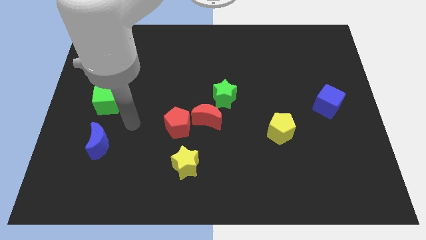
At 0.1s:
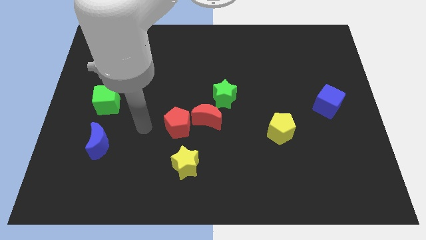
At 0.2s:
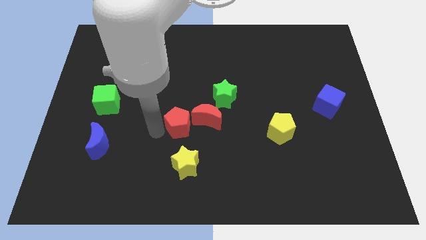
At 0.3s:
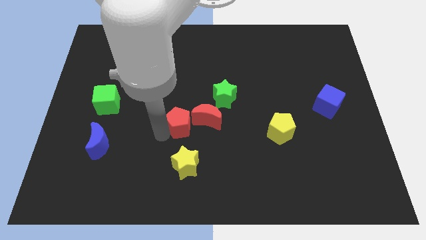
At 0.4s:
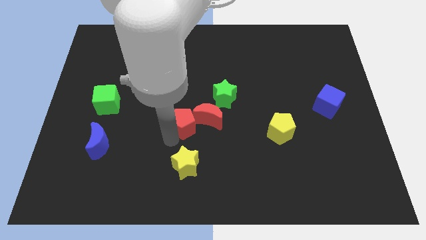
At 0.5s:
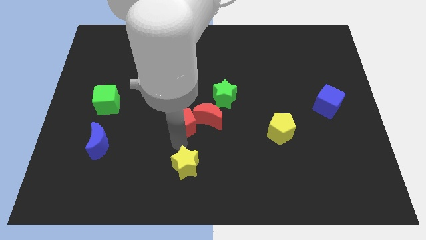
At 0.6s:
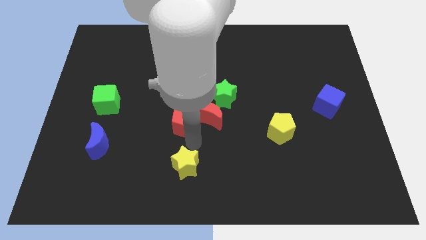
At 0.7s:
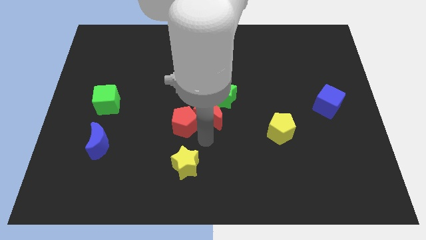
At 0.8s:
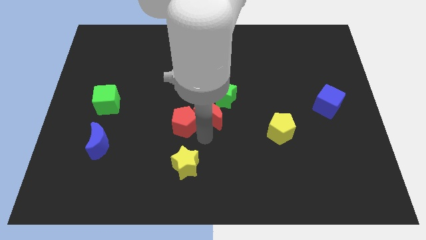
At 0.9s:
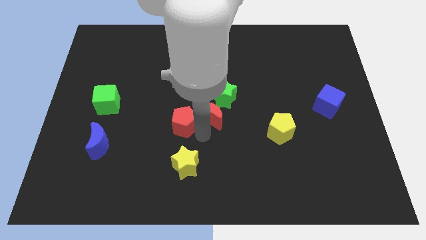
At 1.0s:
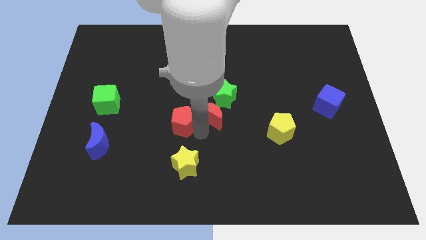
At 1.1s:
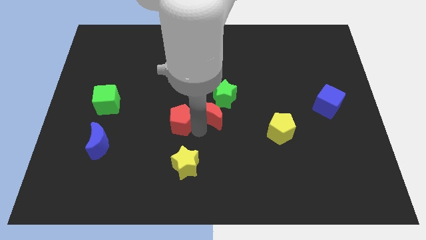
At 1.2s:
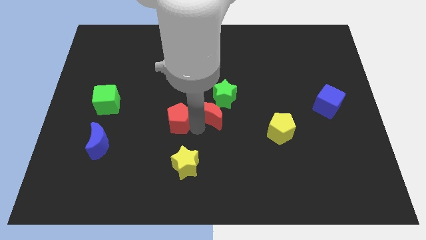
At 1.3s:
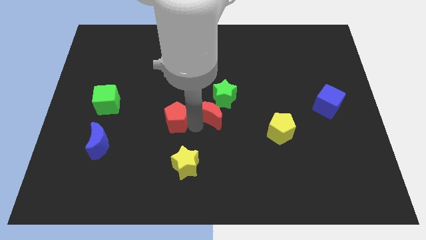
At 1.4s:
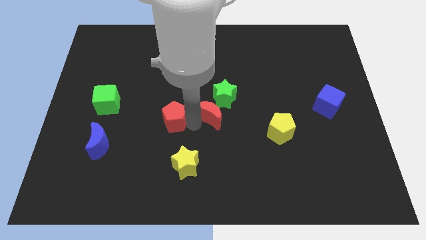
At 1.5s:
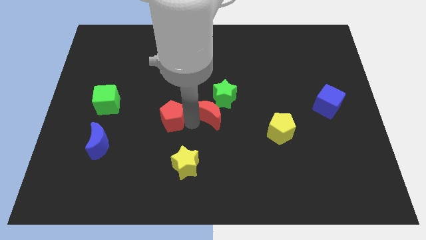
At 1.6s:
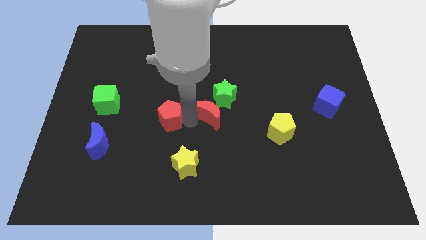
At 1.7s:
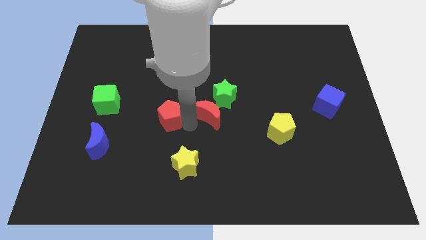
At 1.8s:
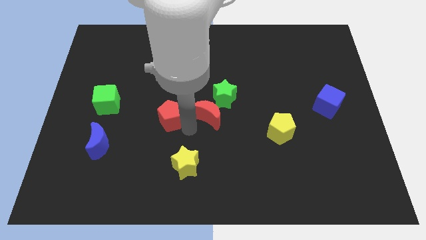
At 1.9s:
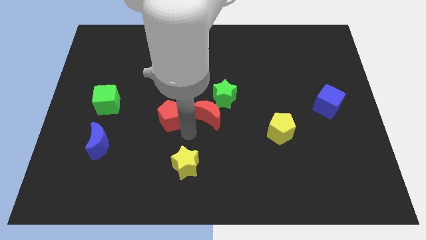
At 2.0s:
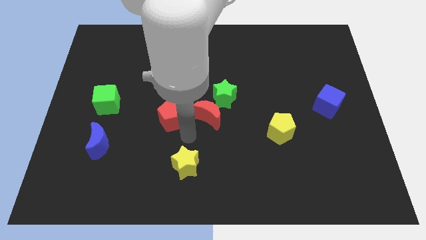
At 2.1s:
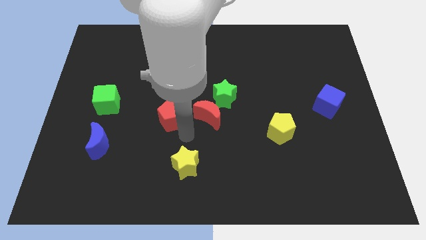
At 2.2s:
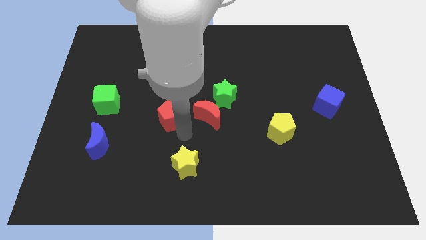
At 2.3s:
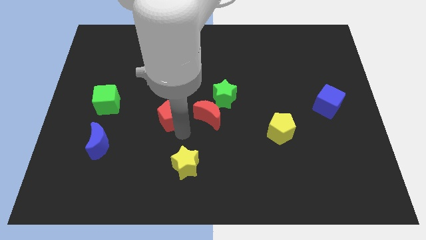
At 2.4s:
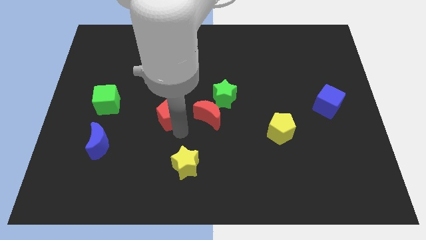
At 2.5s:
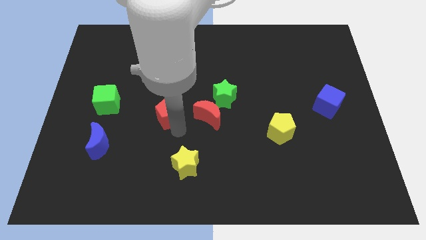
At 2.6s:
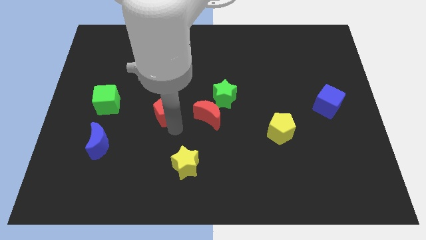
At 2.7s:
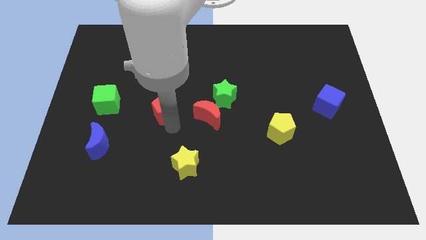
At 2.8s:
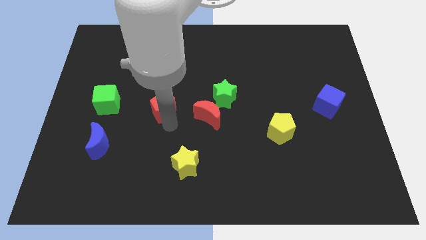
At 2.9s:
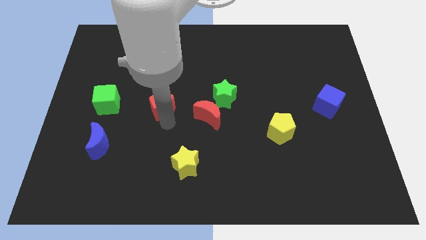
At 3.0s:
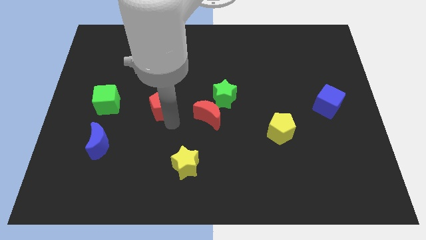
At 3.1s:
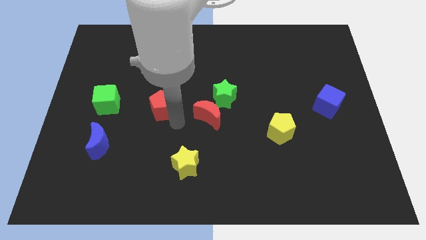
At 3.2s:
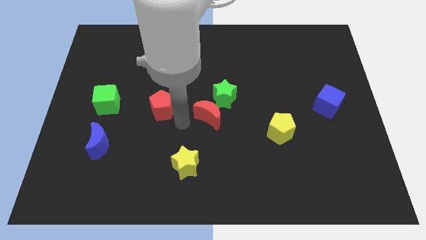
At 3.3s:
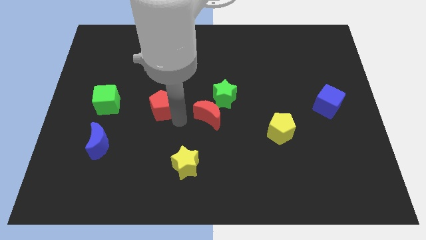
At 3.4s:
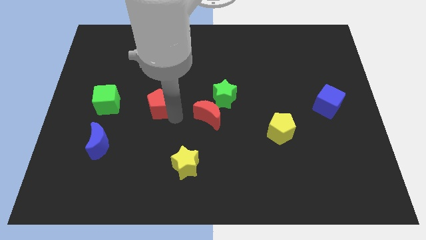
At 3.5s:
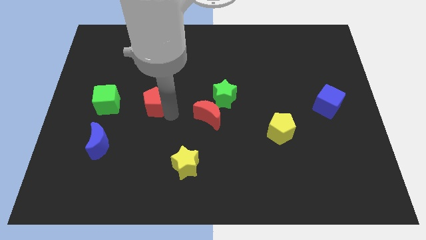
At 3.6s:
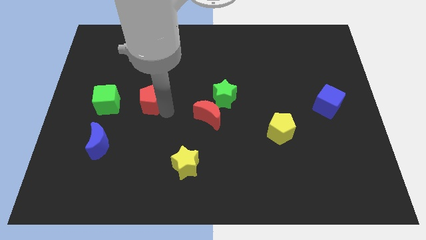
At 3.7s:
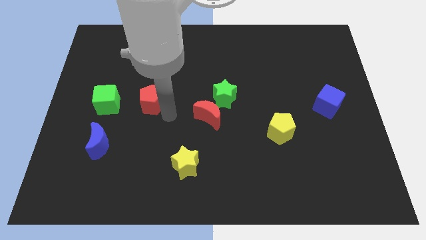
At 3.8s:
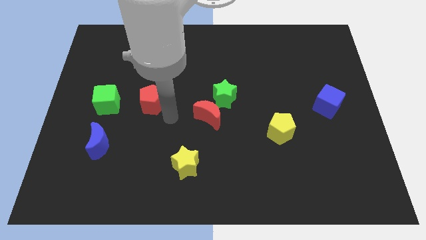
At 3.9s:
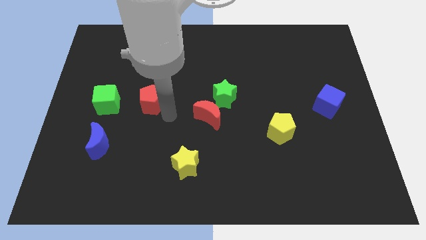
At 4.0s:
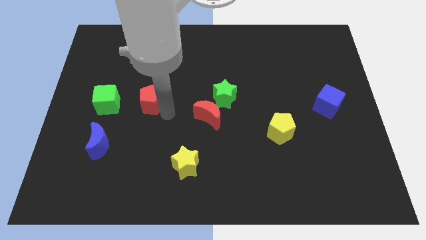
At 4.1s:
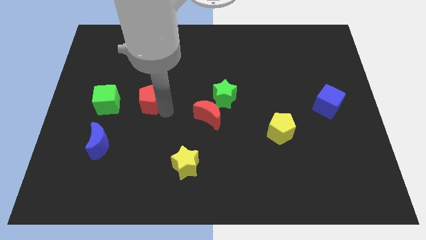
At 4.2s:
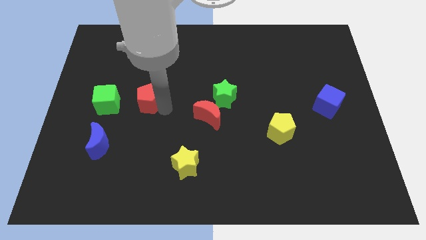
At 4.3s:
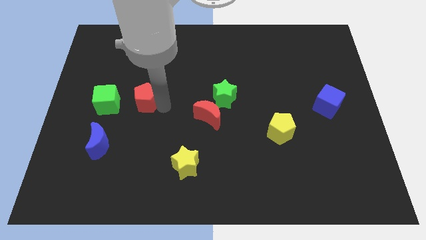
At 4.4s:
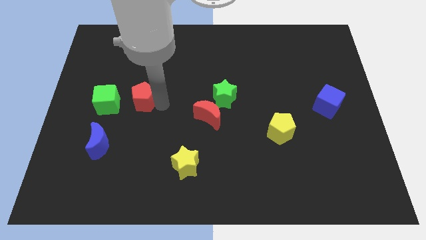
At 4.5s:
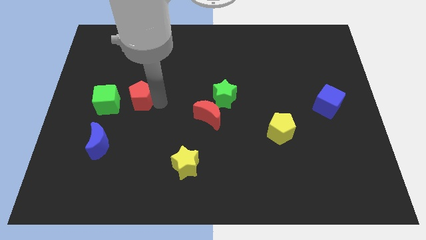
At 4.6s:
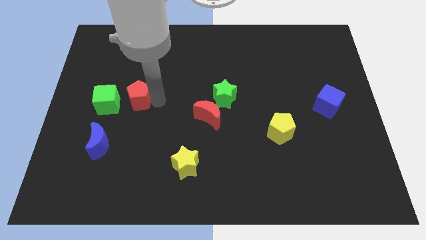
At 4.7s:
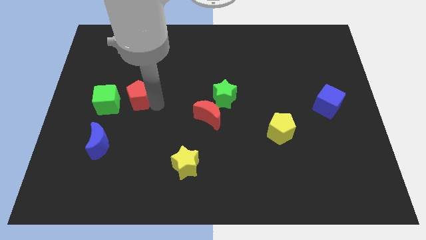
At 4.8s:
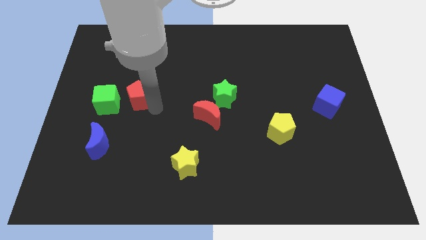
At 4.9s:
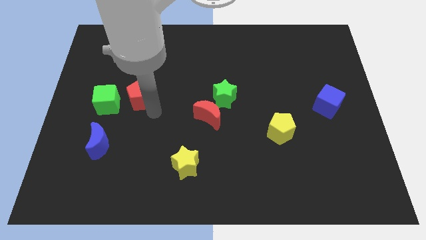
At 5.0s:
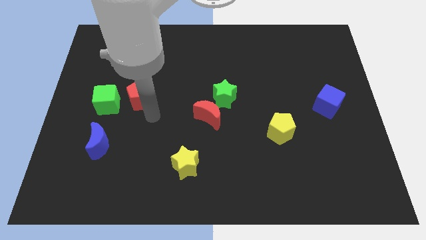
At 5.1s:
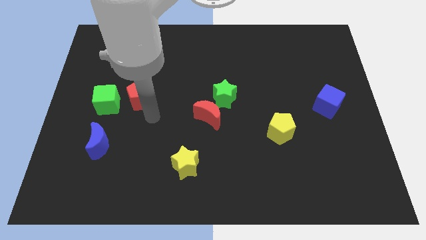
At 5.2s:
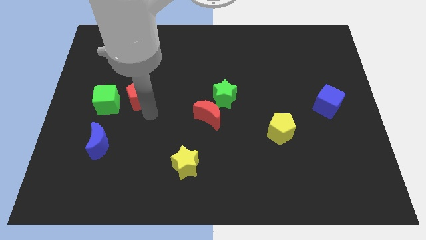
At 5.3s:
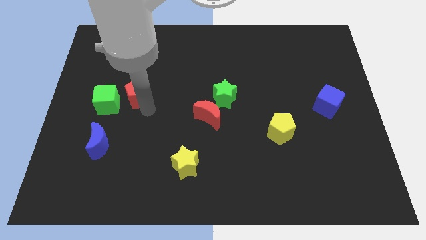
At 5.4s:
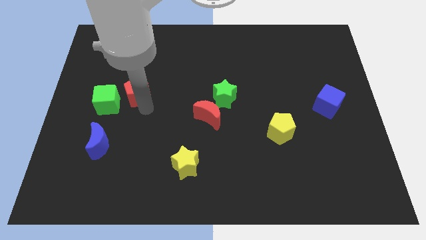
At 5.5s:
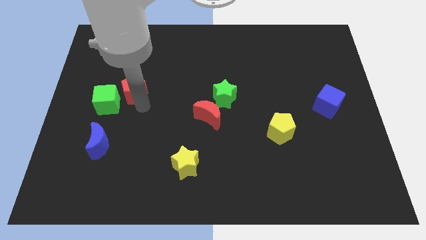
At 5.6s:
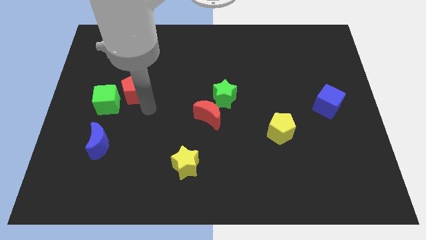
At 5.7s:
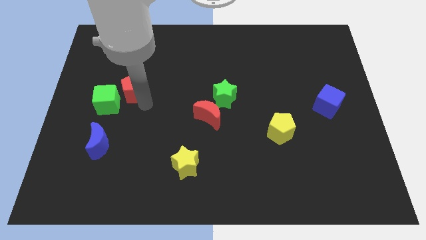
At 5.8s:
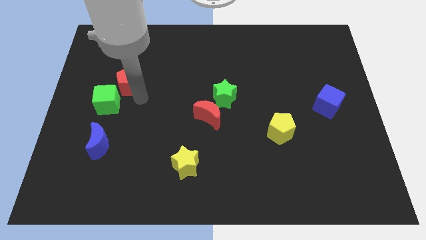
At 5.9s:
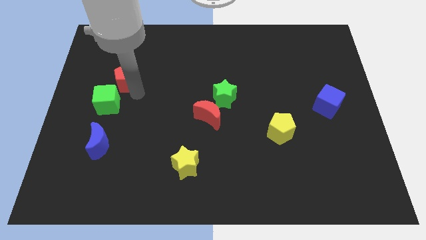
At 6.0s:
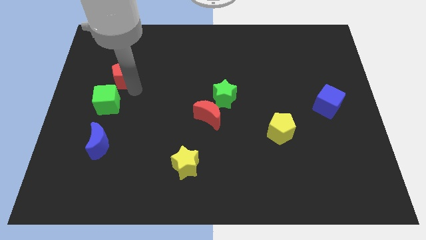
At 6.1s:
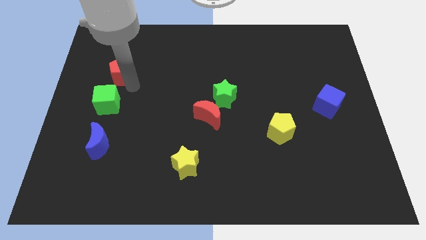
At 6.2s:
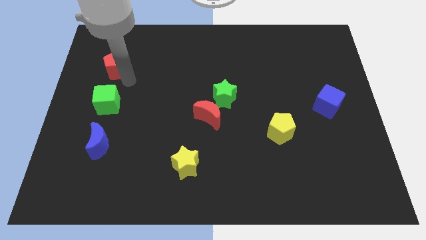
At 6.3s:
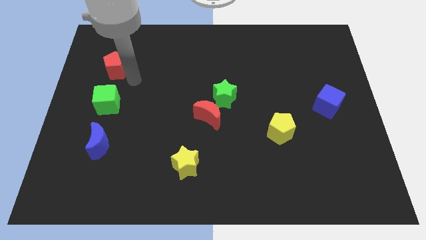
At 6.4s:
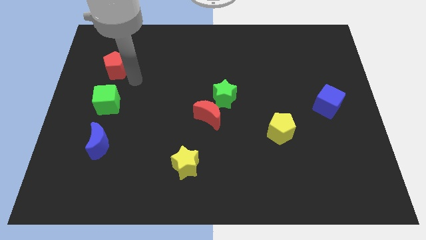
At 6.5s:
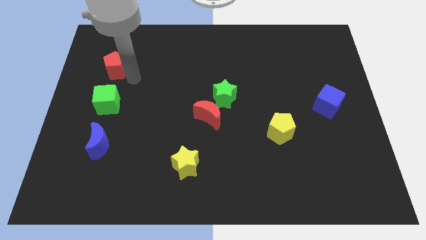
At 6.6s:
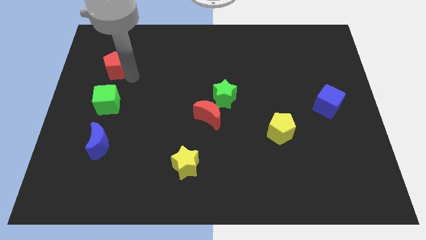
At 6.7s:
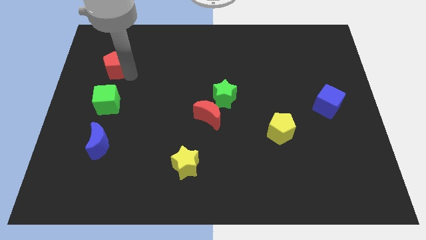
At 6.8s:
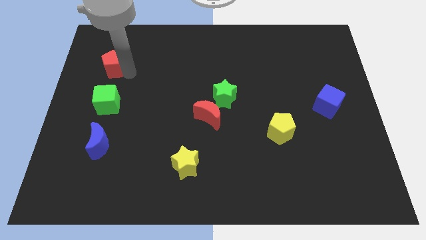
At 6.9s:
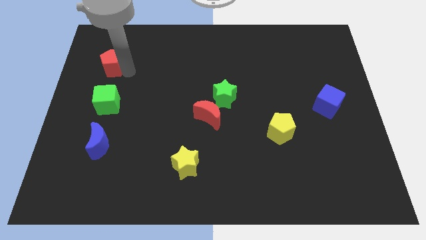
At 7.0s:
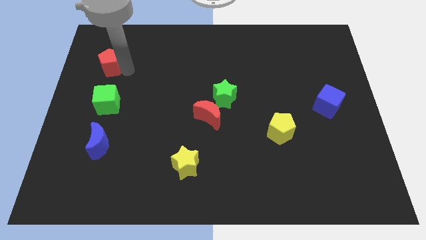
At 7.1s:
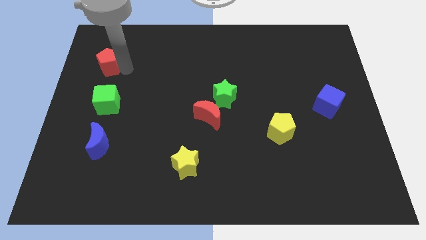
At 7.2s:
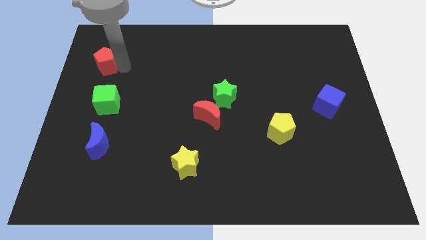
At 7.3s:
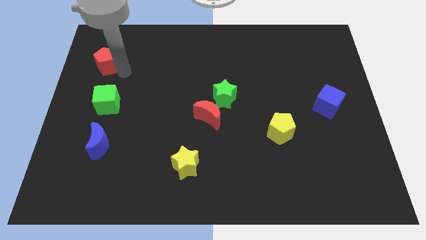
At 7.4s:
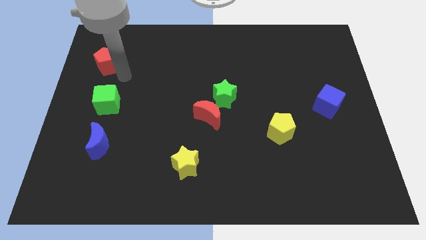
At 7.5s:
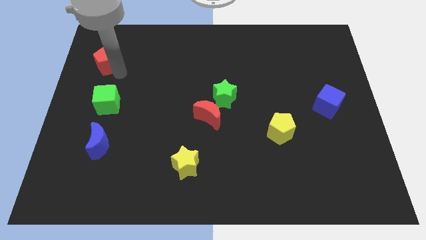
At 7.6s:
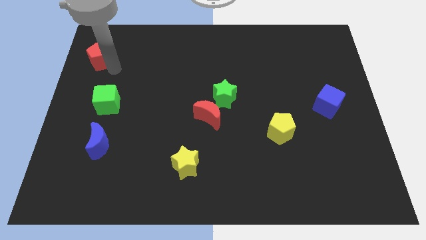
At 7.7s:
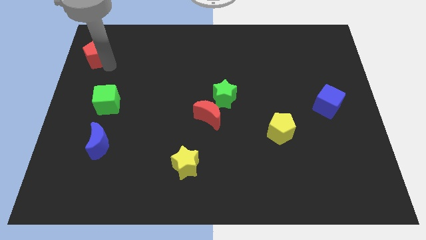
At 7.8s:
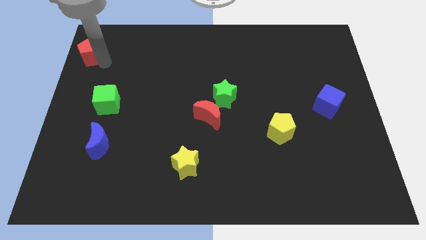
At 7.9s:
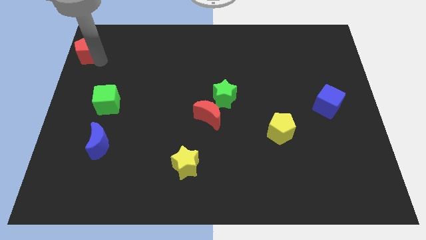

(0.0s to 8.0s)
put the red pentagon to the top left corner
